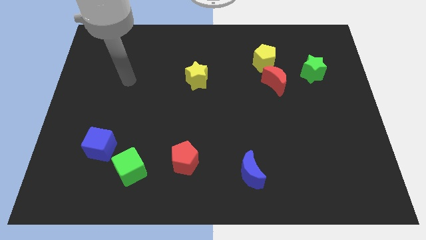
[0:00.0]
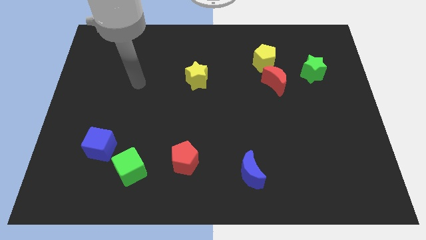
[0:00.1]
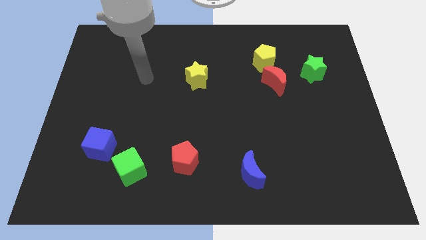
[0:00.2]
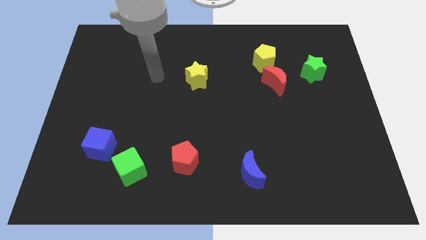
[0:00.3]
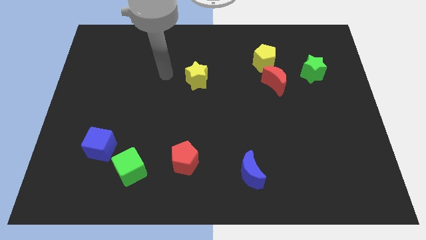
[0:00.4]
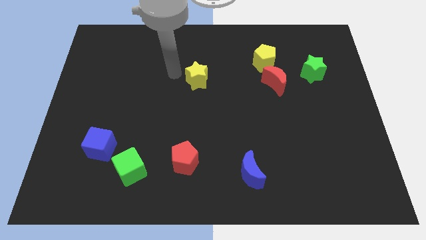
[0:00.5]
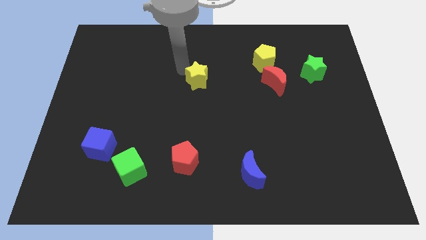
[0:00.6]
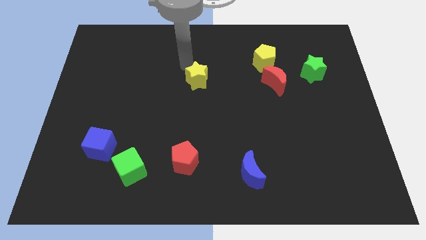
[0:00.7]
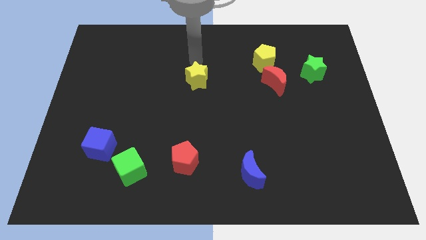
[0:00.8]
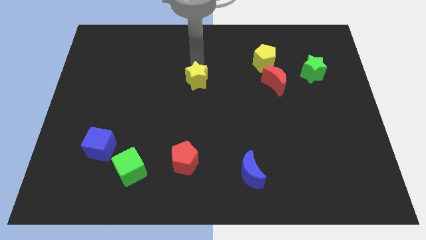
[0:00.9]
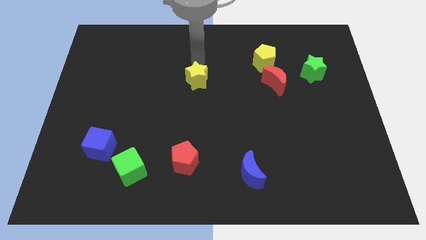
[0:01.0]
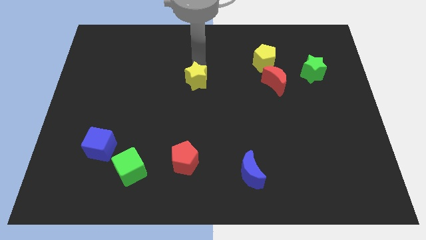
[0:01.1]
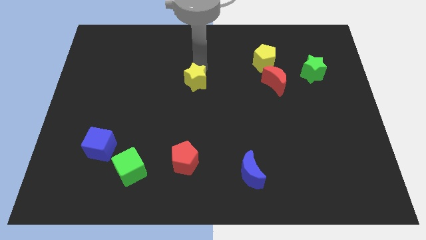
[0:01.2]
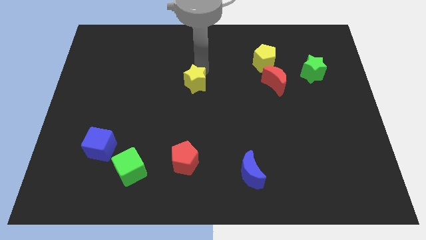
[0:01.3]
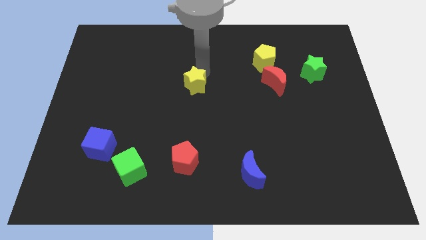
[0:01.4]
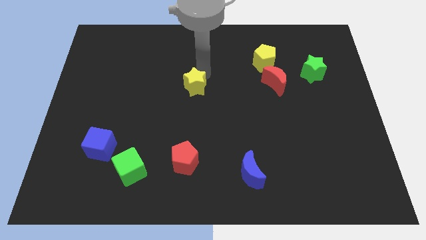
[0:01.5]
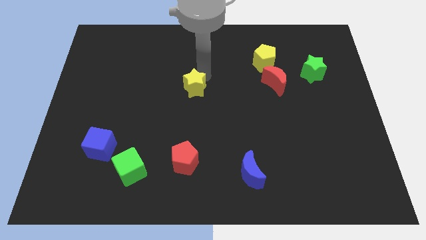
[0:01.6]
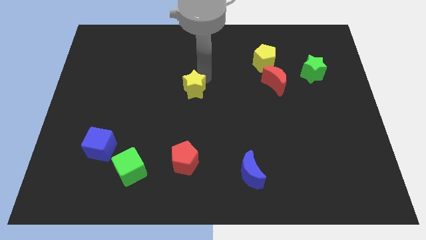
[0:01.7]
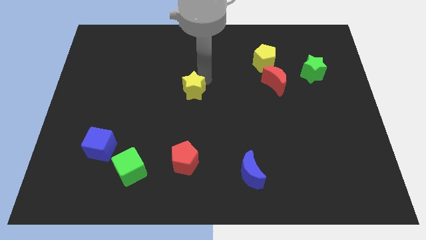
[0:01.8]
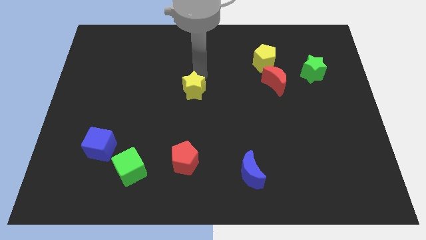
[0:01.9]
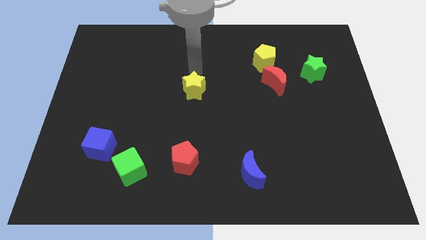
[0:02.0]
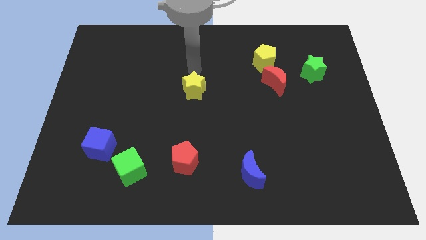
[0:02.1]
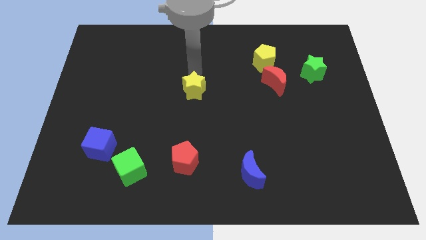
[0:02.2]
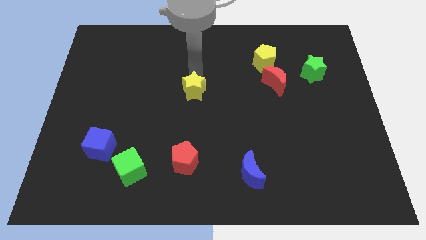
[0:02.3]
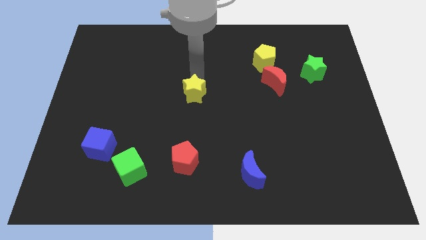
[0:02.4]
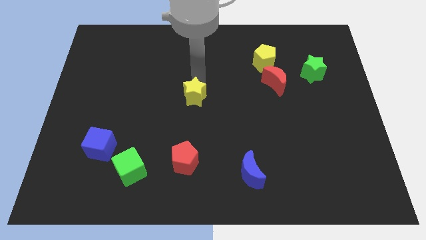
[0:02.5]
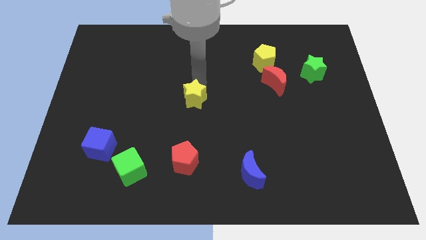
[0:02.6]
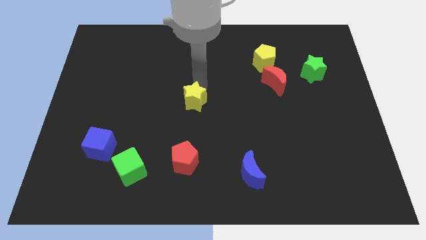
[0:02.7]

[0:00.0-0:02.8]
slide the yellow star downwards somewhat

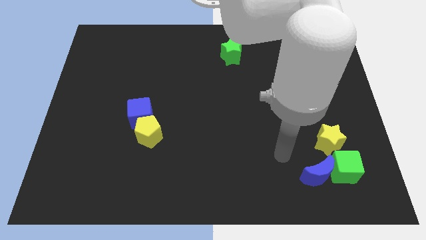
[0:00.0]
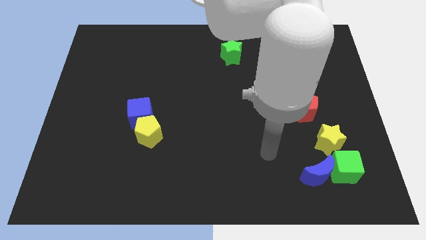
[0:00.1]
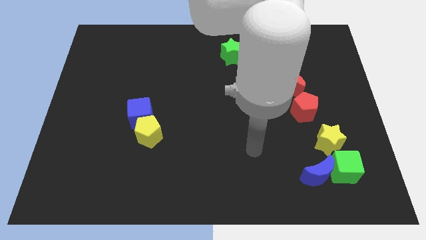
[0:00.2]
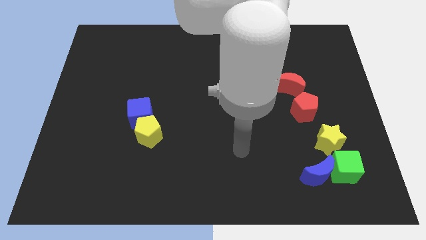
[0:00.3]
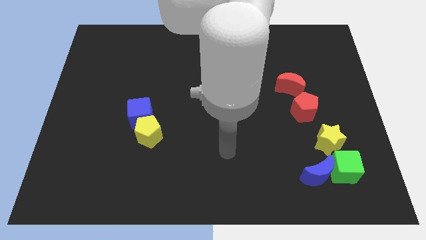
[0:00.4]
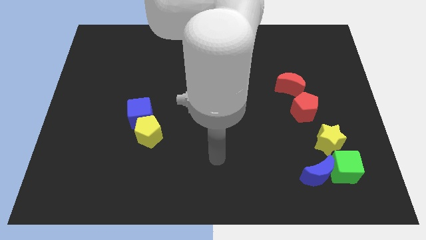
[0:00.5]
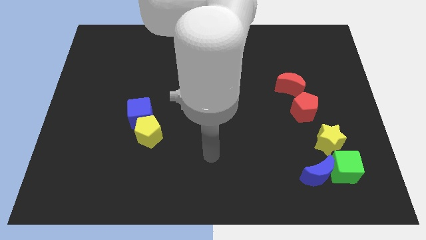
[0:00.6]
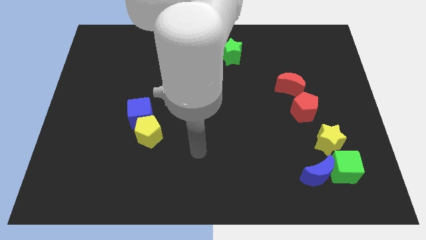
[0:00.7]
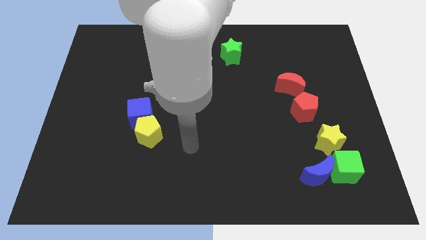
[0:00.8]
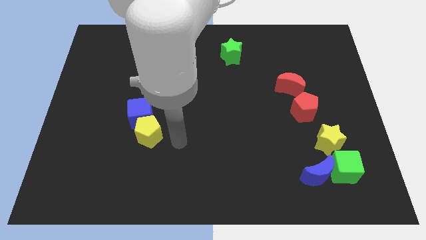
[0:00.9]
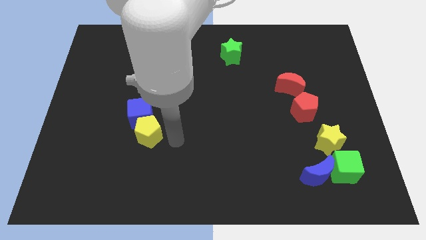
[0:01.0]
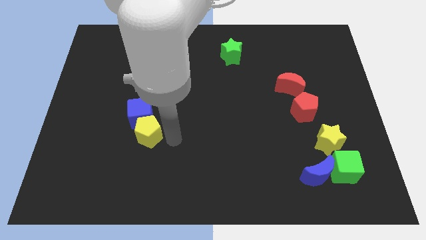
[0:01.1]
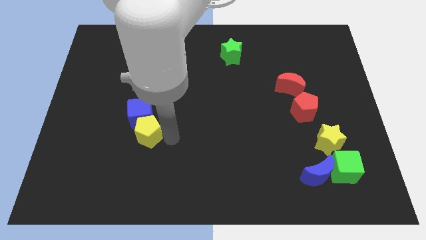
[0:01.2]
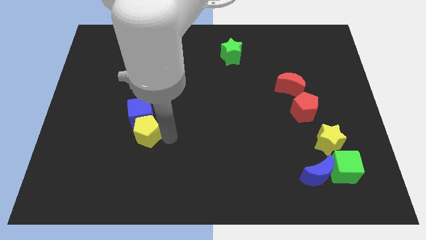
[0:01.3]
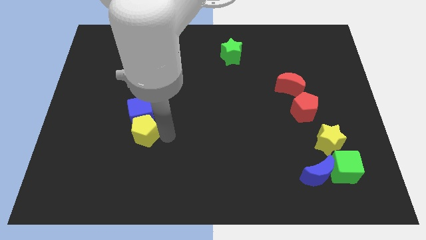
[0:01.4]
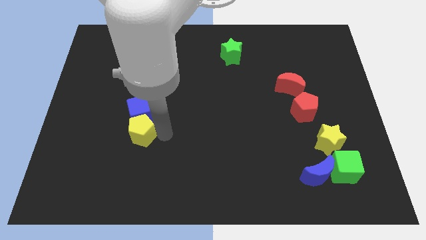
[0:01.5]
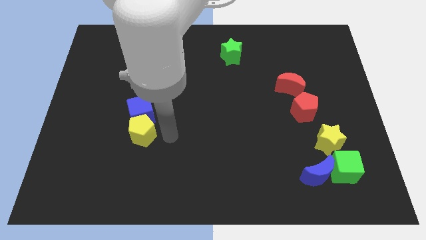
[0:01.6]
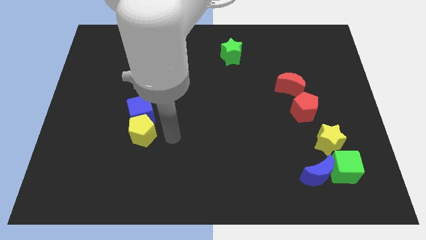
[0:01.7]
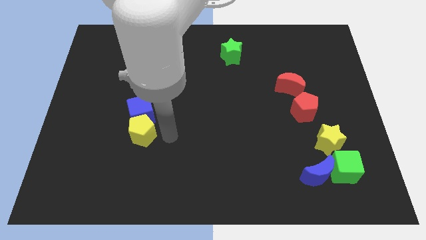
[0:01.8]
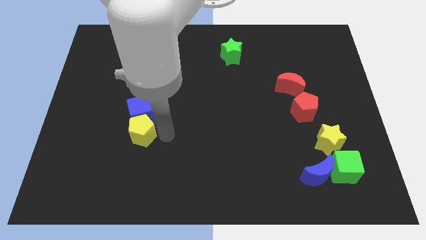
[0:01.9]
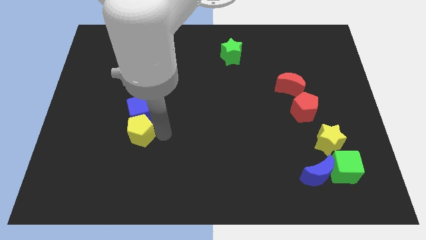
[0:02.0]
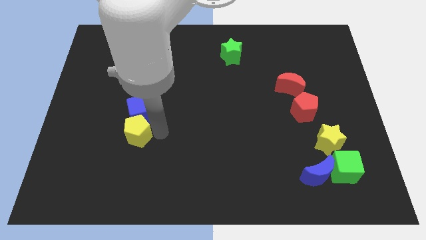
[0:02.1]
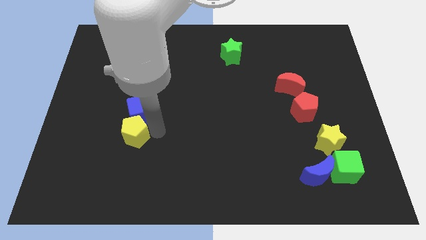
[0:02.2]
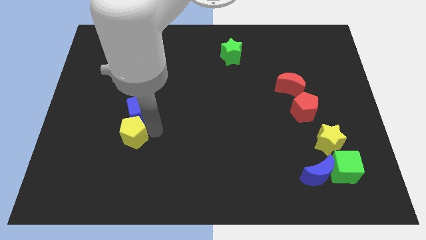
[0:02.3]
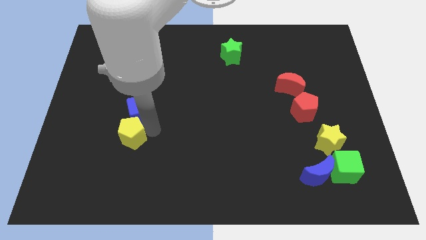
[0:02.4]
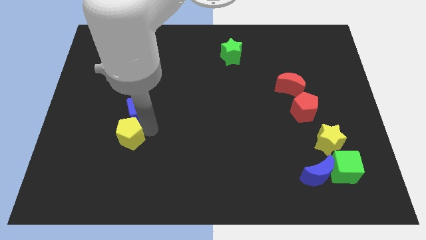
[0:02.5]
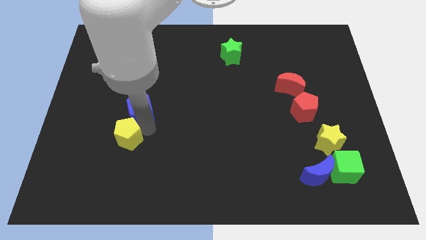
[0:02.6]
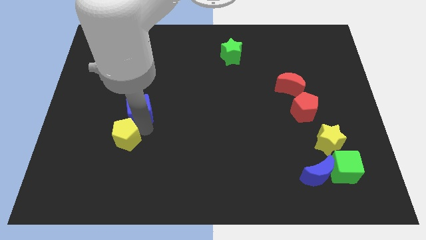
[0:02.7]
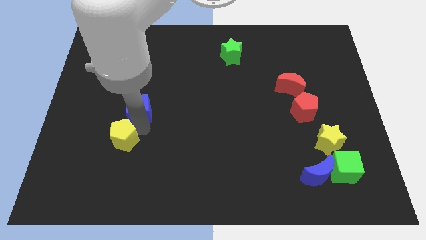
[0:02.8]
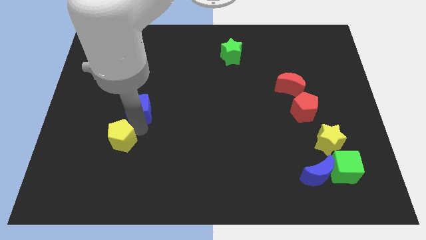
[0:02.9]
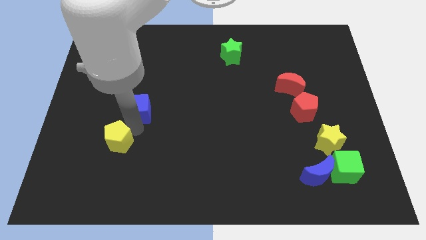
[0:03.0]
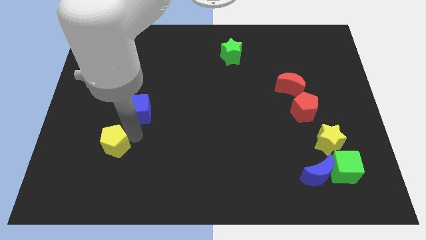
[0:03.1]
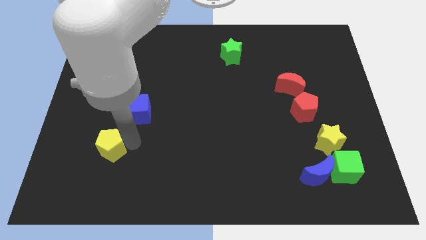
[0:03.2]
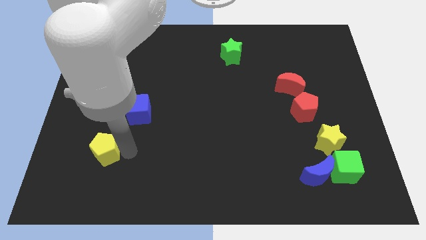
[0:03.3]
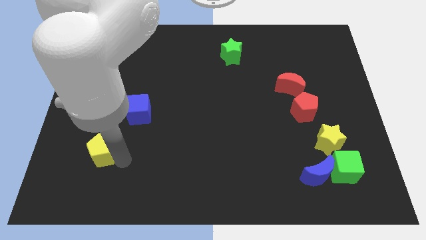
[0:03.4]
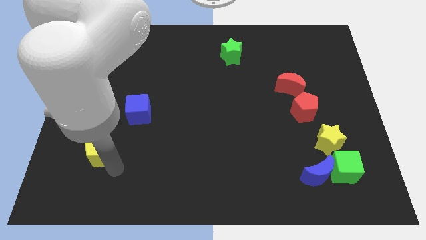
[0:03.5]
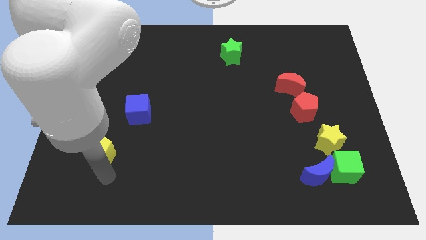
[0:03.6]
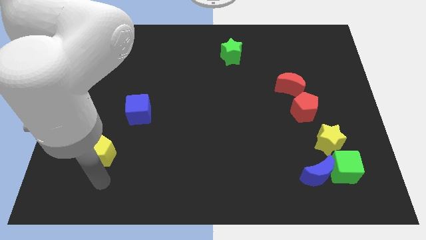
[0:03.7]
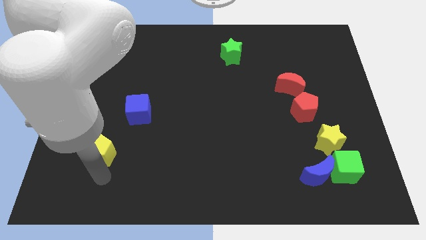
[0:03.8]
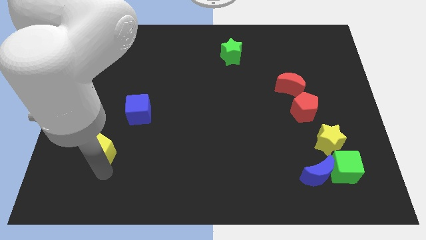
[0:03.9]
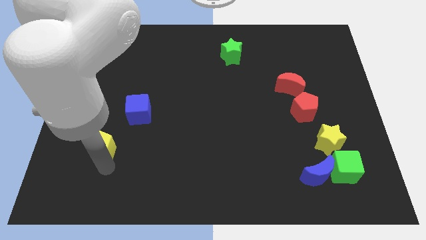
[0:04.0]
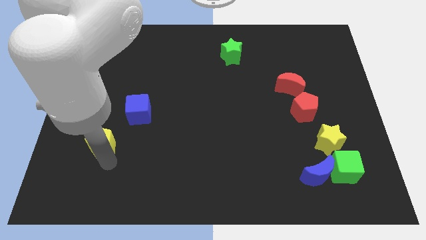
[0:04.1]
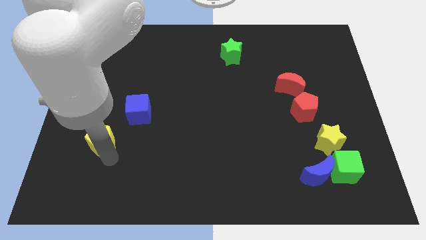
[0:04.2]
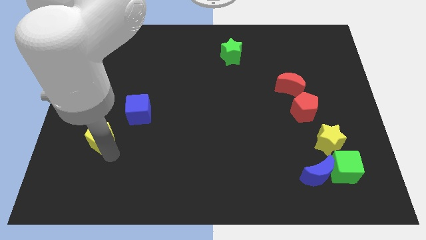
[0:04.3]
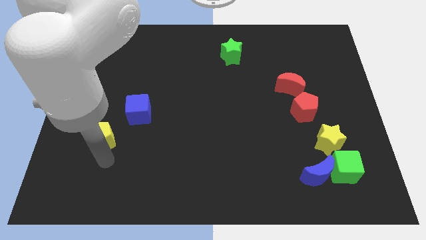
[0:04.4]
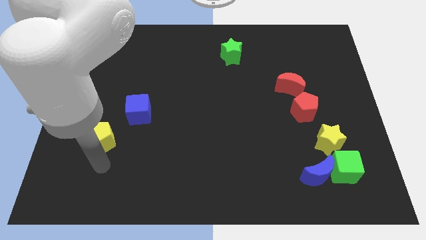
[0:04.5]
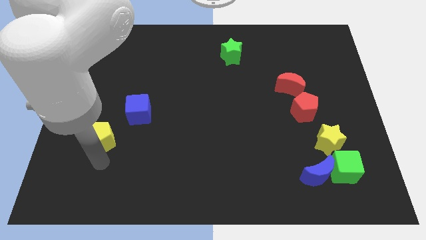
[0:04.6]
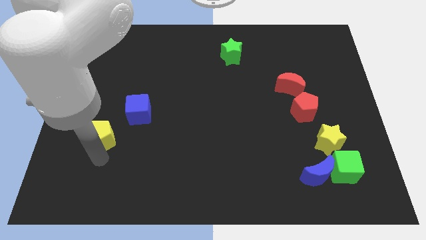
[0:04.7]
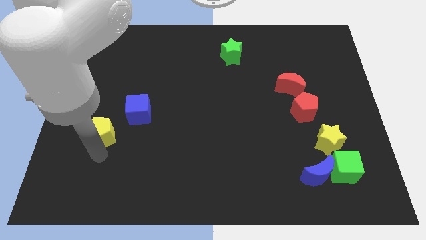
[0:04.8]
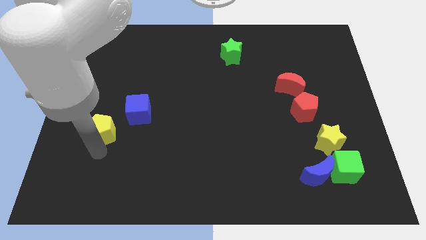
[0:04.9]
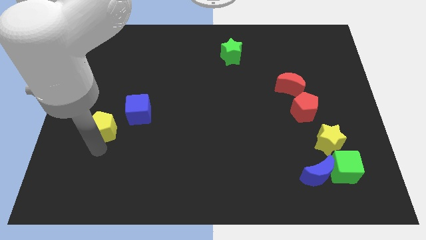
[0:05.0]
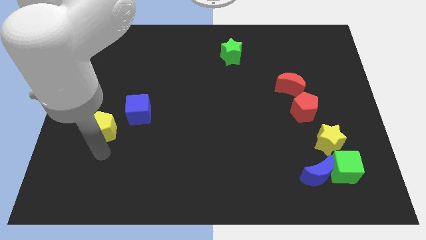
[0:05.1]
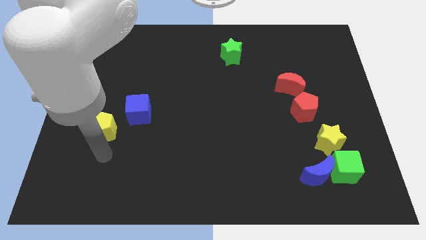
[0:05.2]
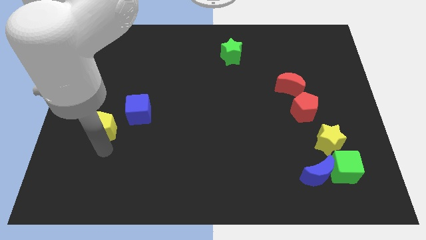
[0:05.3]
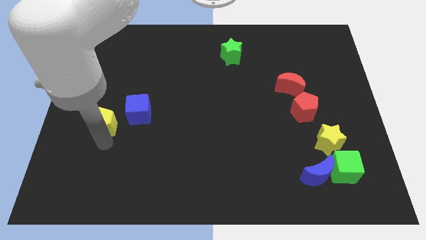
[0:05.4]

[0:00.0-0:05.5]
push the yellow pentagon diagonally upwards and left a bit
